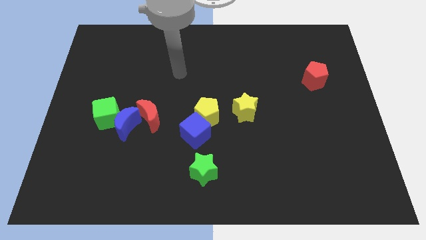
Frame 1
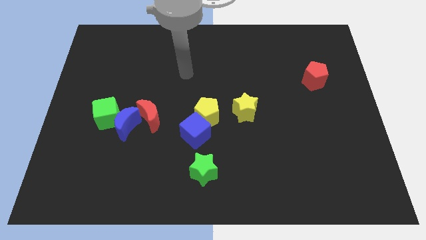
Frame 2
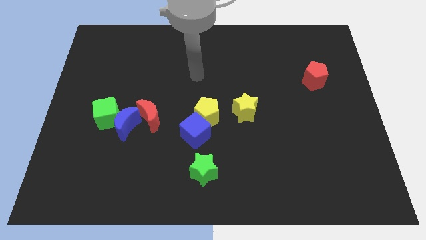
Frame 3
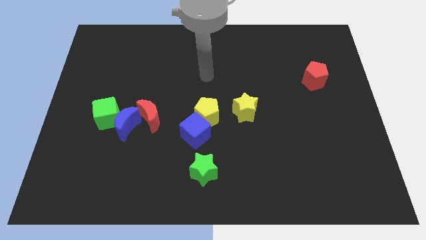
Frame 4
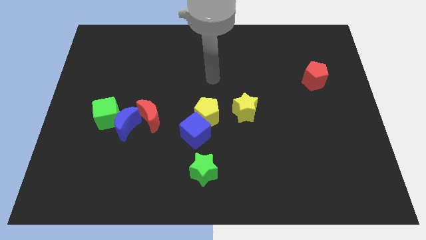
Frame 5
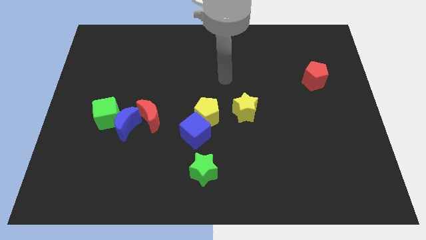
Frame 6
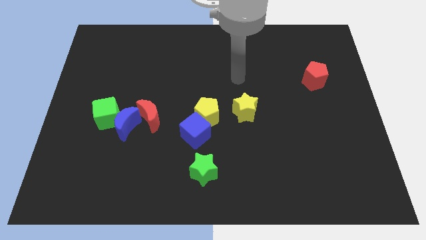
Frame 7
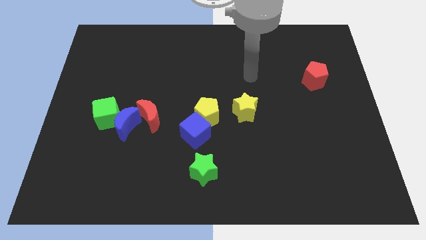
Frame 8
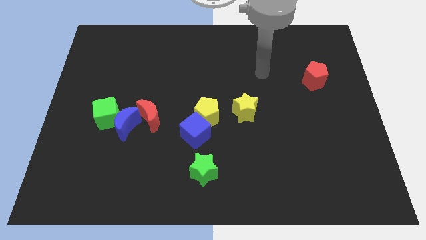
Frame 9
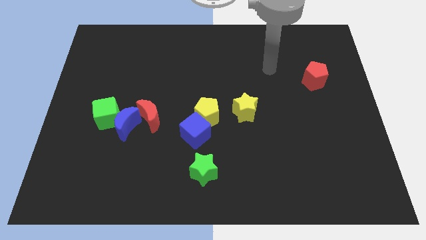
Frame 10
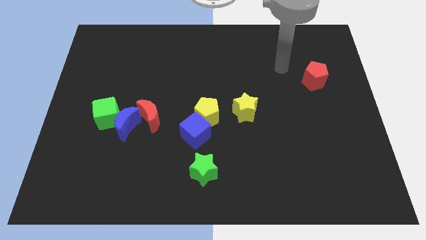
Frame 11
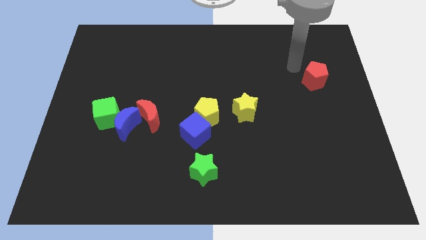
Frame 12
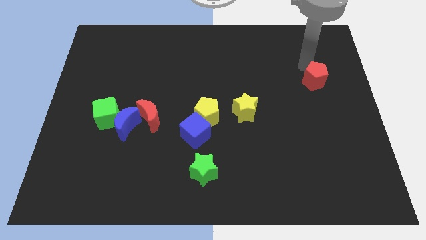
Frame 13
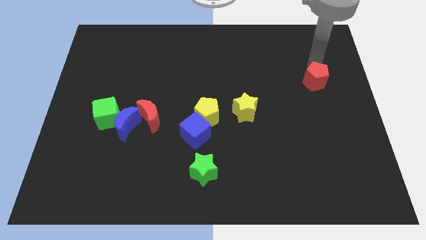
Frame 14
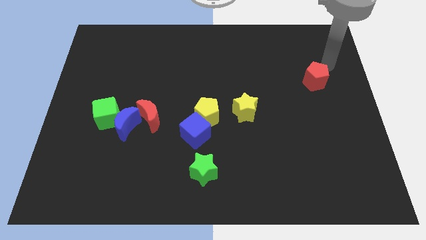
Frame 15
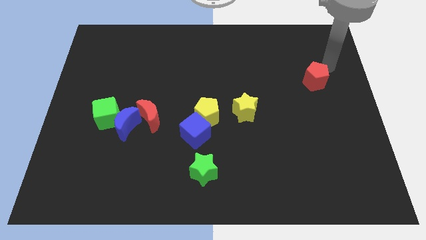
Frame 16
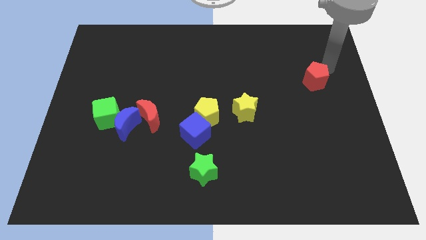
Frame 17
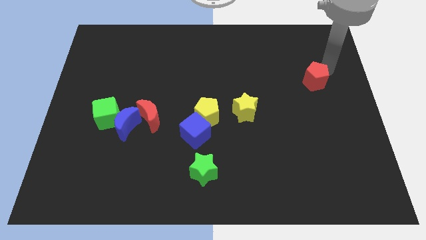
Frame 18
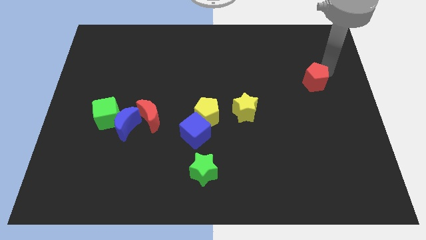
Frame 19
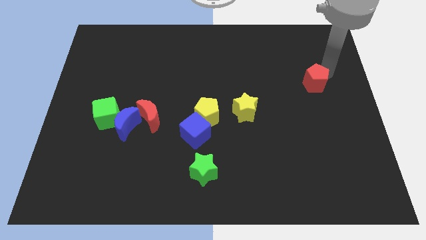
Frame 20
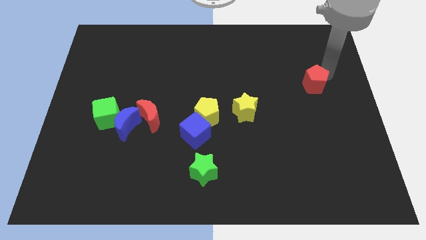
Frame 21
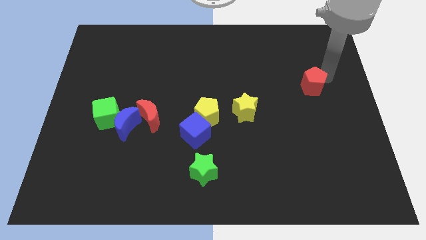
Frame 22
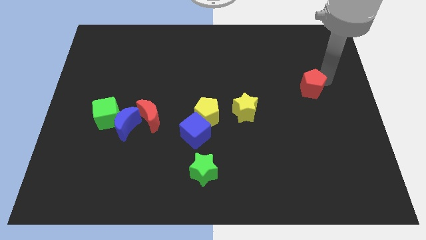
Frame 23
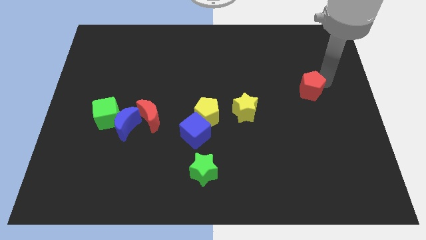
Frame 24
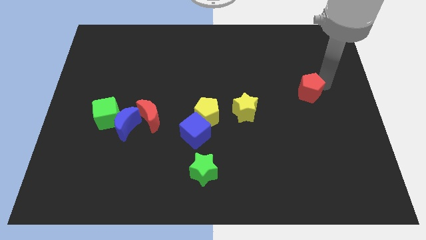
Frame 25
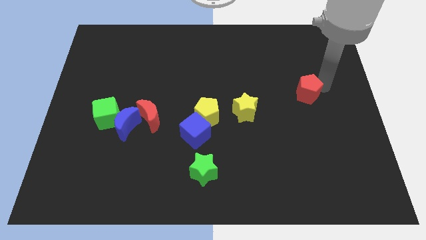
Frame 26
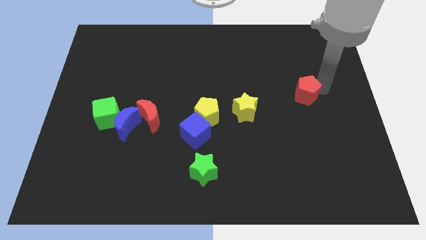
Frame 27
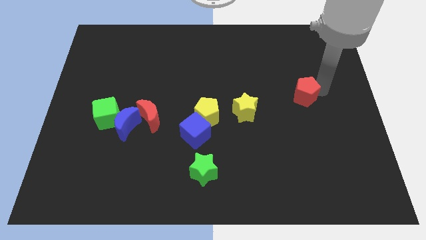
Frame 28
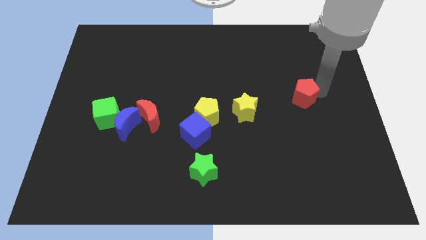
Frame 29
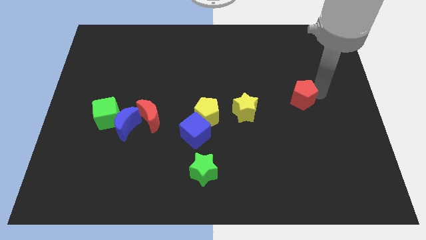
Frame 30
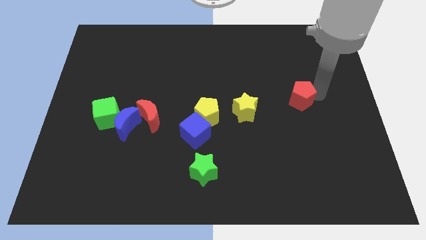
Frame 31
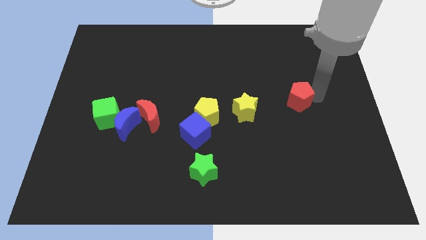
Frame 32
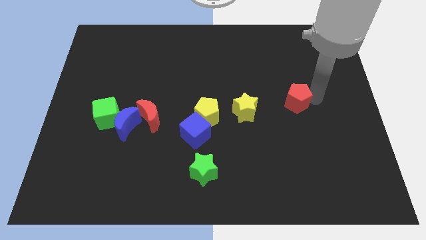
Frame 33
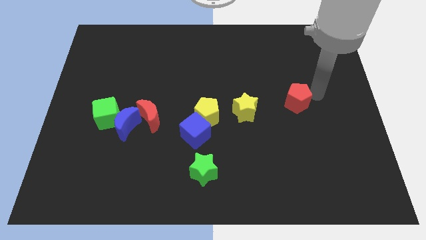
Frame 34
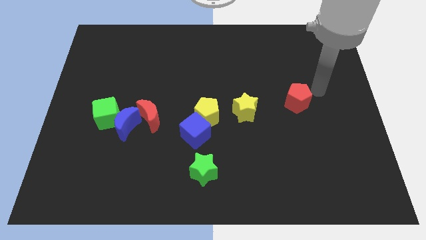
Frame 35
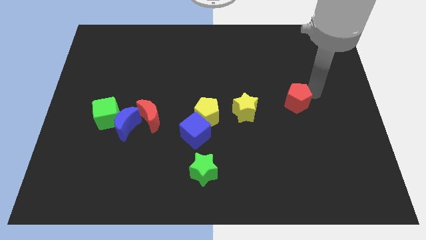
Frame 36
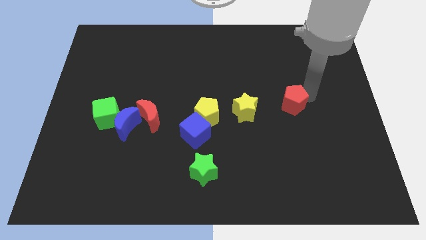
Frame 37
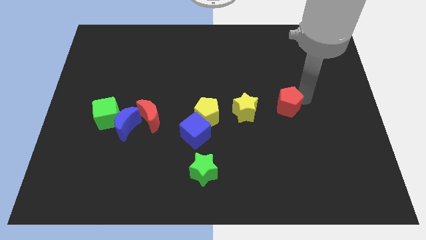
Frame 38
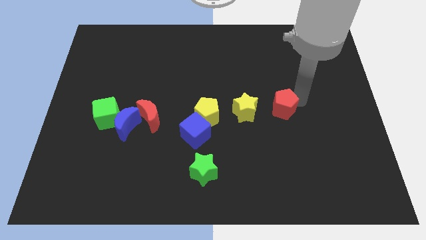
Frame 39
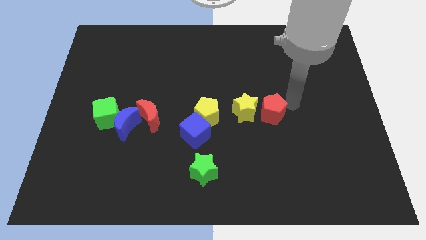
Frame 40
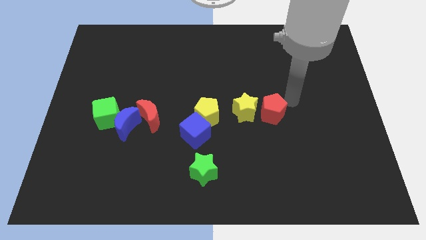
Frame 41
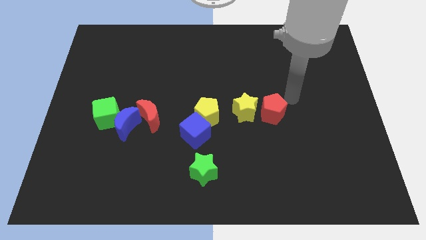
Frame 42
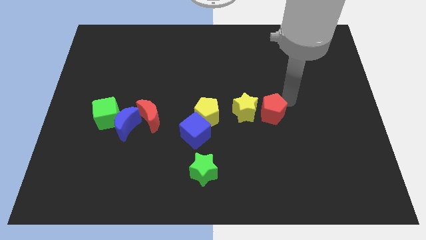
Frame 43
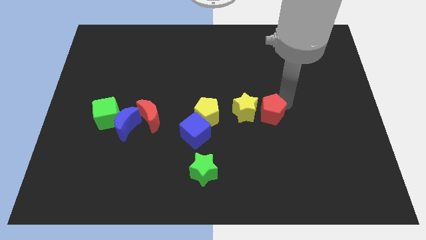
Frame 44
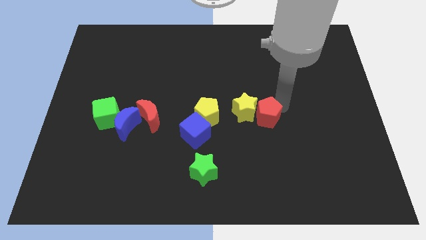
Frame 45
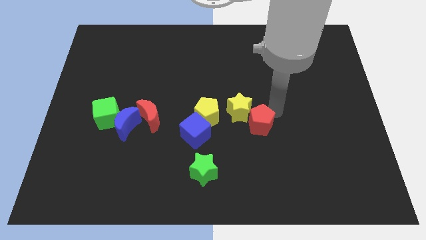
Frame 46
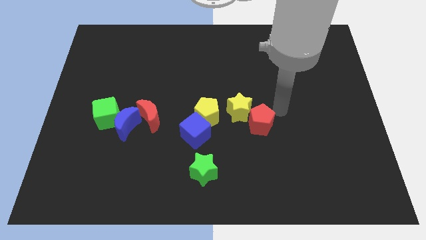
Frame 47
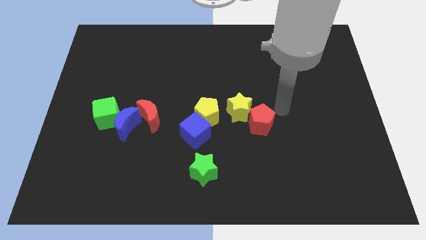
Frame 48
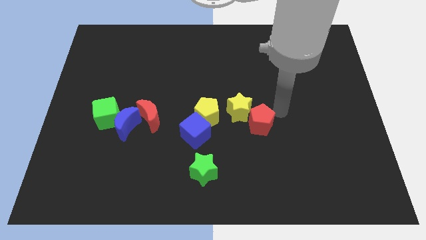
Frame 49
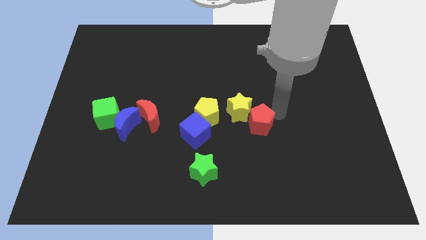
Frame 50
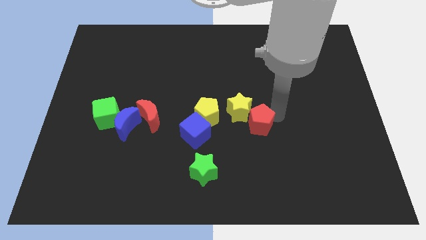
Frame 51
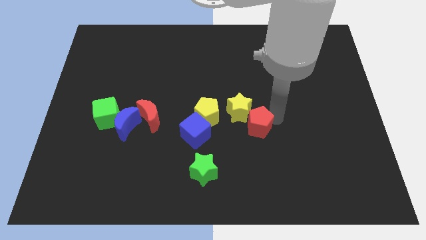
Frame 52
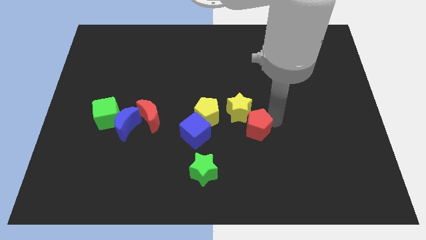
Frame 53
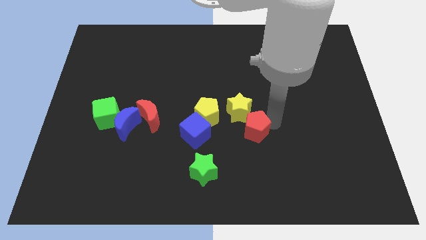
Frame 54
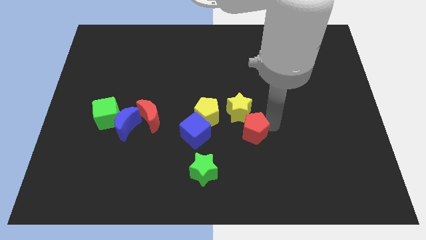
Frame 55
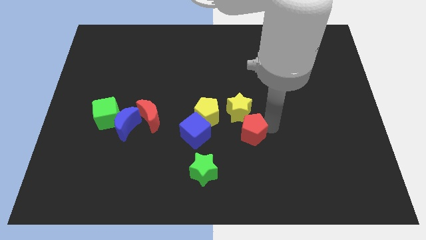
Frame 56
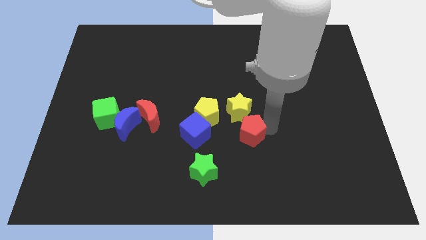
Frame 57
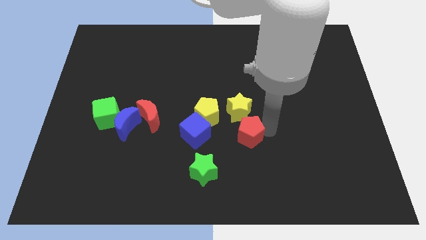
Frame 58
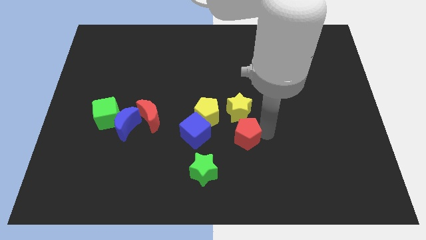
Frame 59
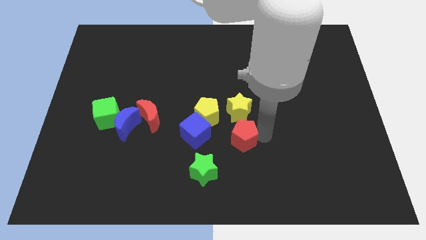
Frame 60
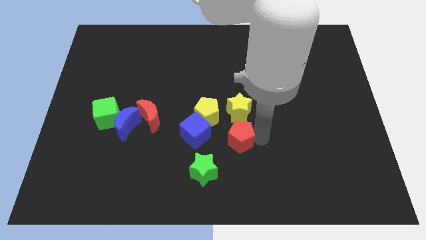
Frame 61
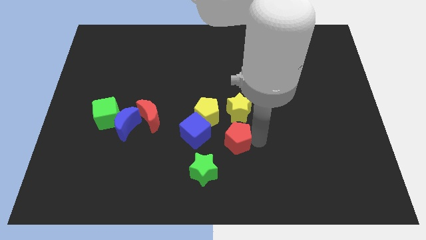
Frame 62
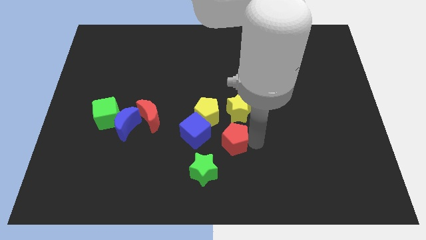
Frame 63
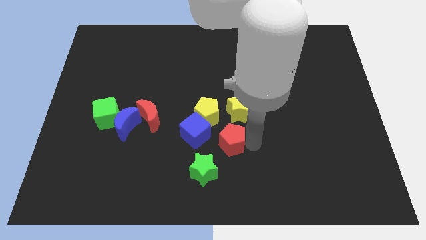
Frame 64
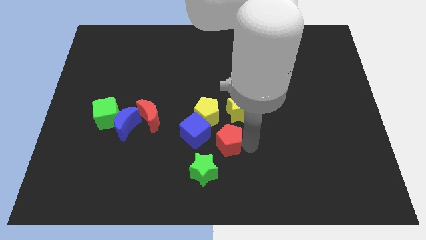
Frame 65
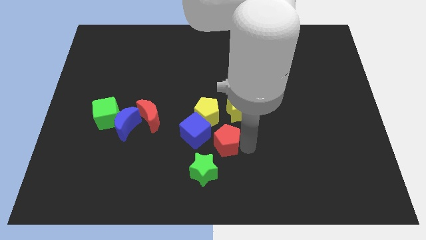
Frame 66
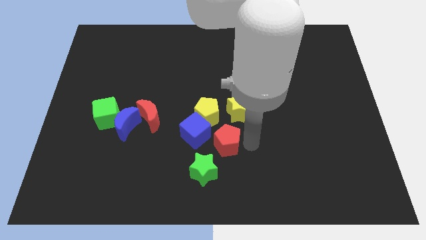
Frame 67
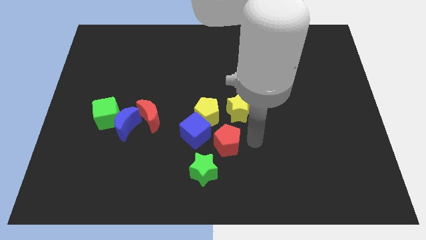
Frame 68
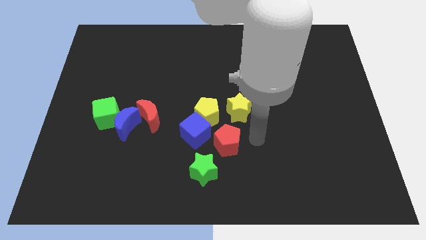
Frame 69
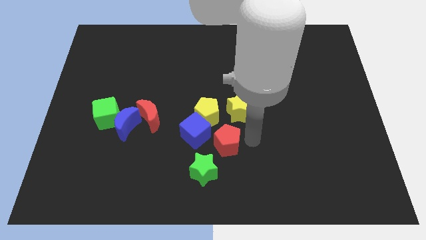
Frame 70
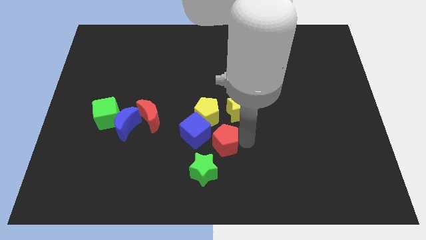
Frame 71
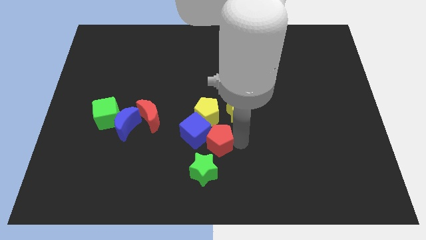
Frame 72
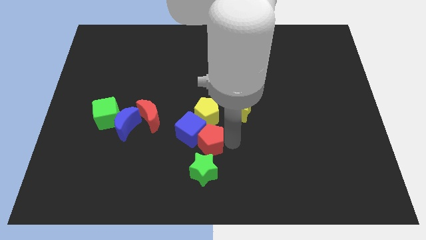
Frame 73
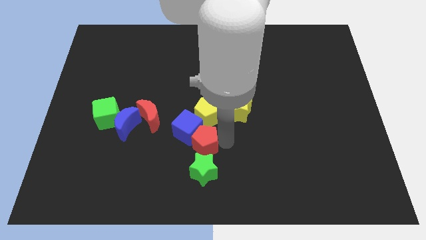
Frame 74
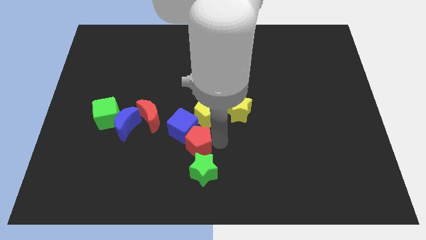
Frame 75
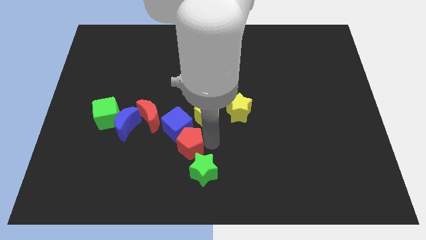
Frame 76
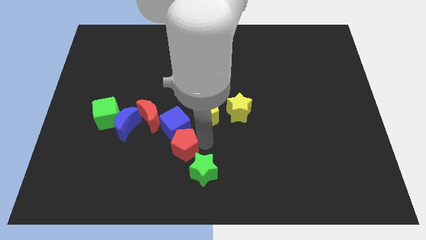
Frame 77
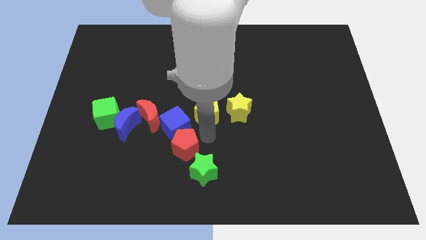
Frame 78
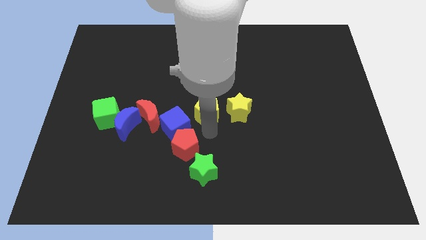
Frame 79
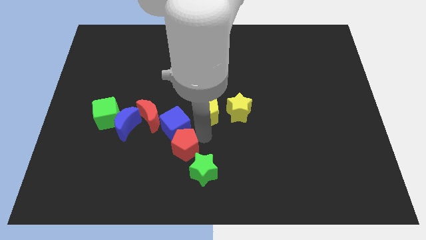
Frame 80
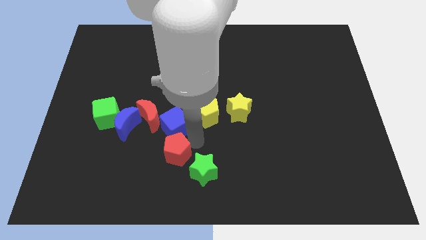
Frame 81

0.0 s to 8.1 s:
slide the red pentagon to the left side of the green star
